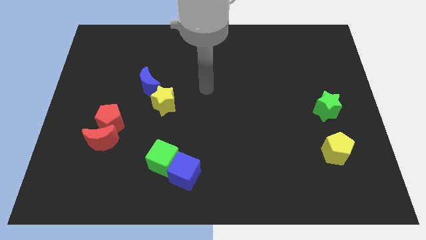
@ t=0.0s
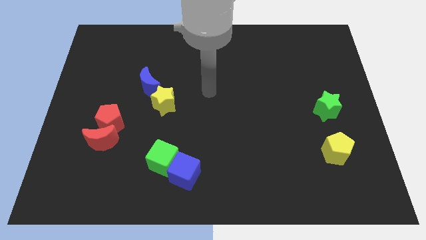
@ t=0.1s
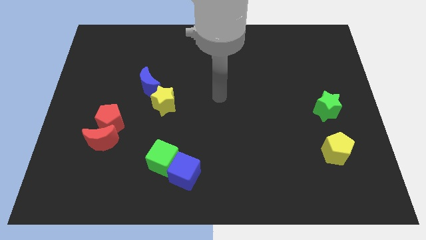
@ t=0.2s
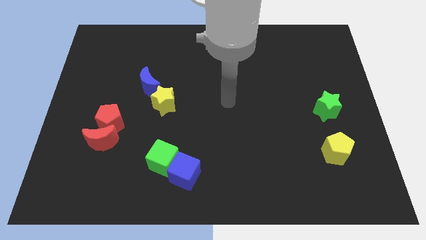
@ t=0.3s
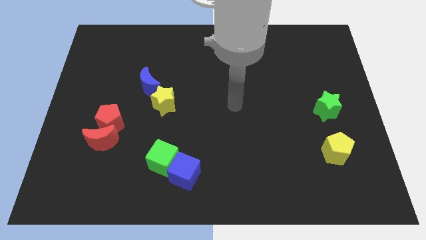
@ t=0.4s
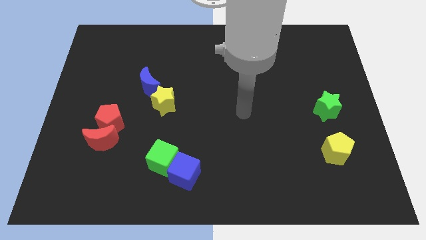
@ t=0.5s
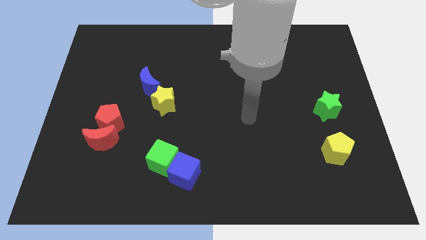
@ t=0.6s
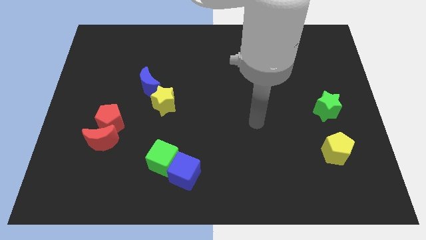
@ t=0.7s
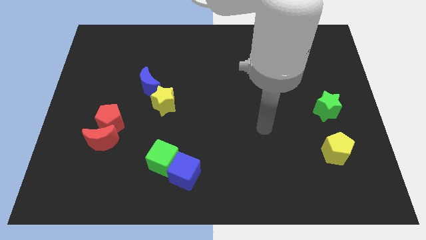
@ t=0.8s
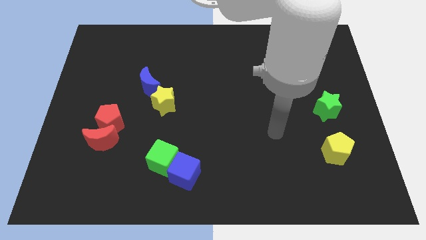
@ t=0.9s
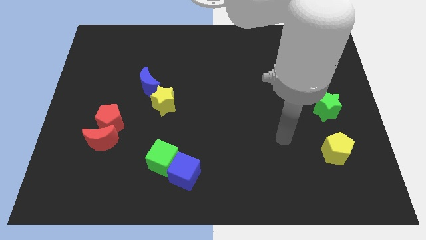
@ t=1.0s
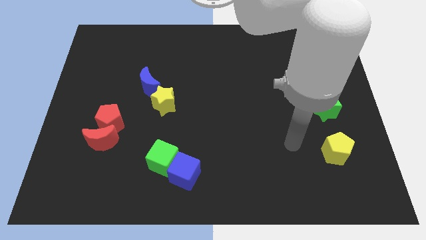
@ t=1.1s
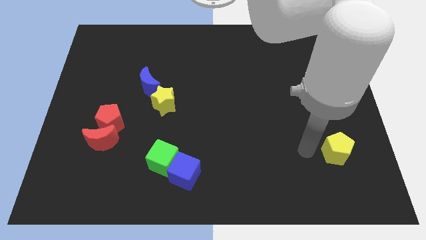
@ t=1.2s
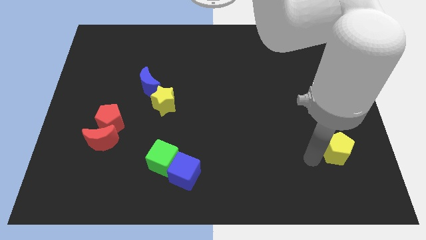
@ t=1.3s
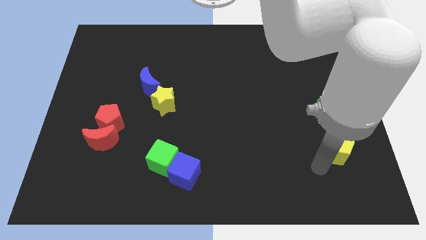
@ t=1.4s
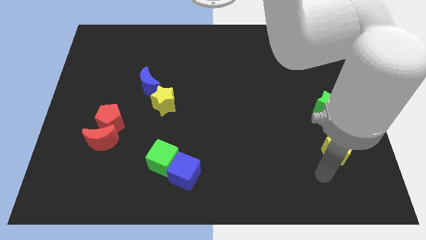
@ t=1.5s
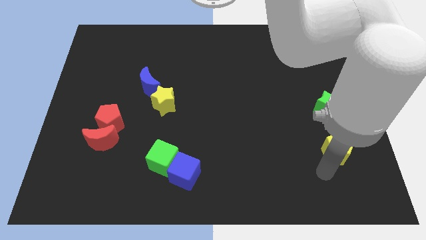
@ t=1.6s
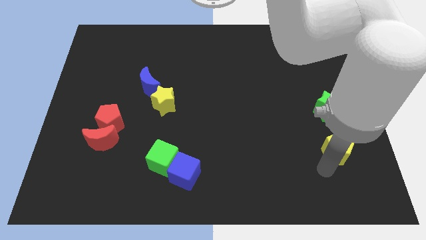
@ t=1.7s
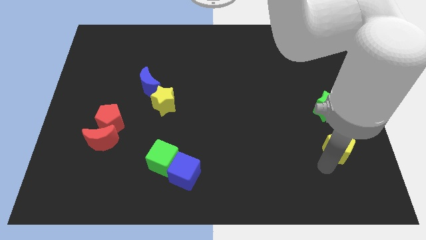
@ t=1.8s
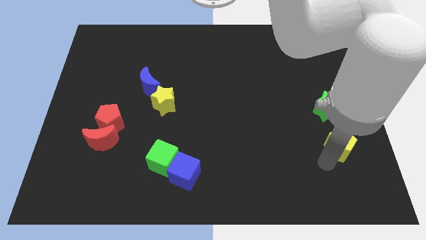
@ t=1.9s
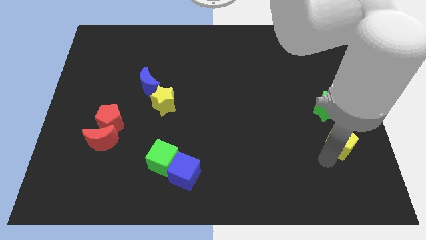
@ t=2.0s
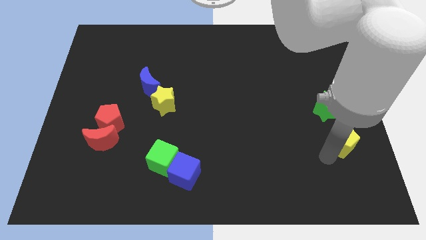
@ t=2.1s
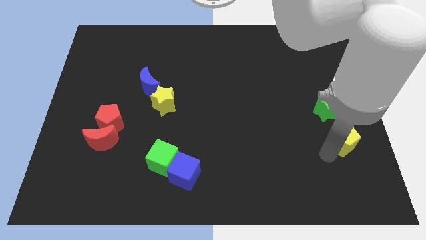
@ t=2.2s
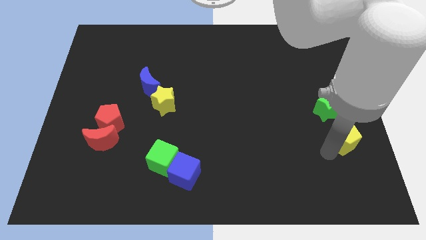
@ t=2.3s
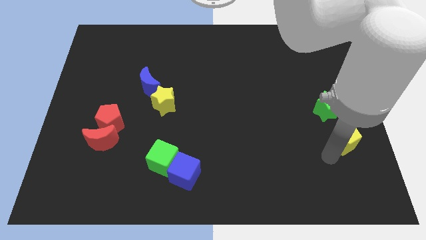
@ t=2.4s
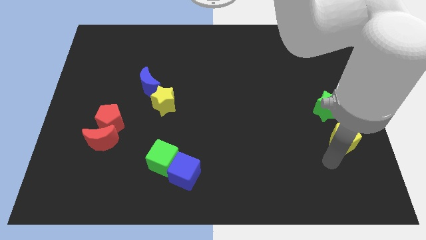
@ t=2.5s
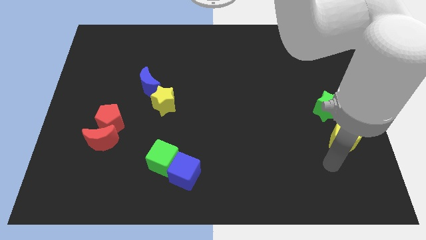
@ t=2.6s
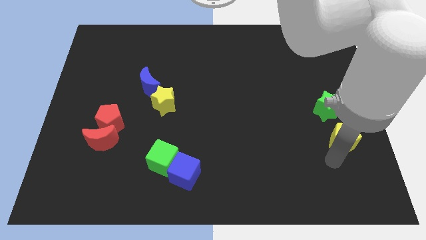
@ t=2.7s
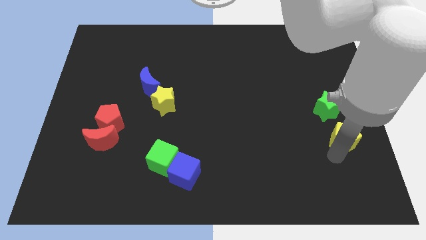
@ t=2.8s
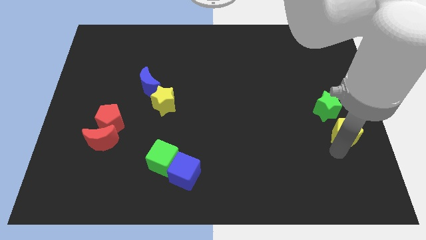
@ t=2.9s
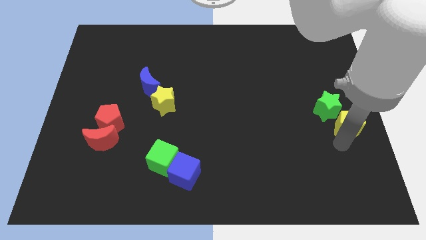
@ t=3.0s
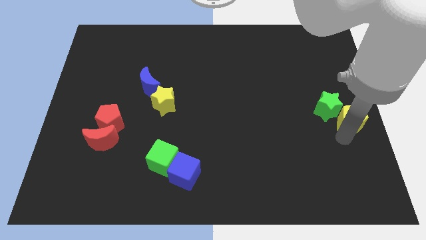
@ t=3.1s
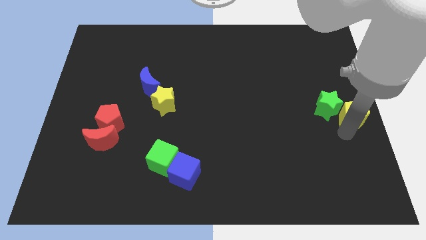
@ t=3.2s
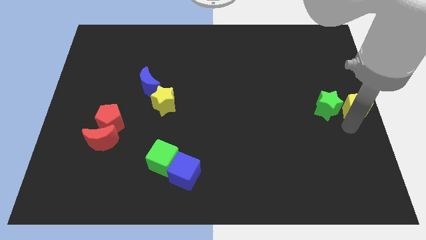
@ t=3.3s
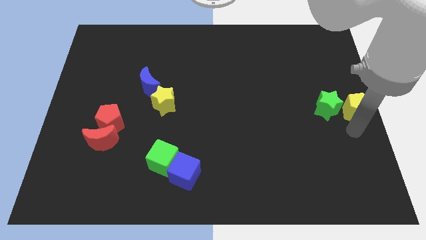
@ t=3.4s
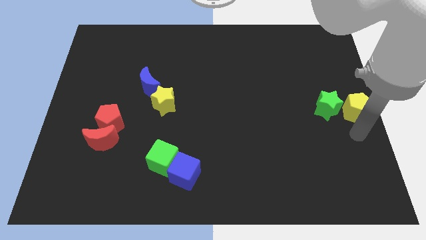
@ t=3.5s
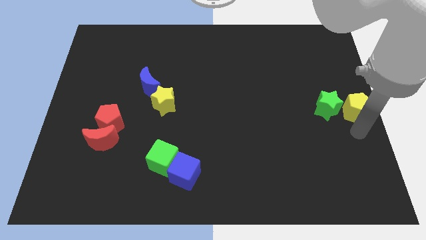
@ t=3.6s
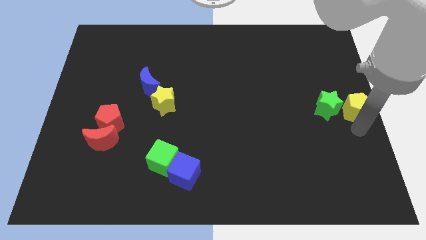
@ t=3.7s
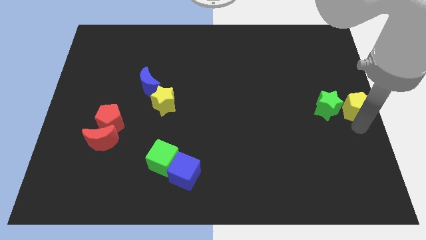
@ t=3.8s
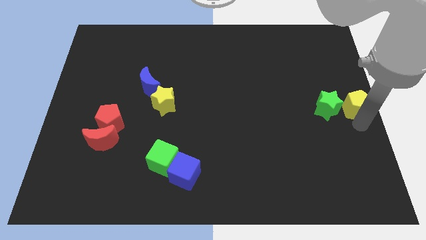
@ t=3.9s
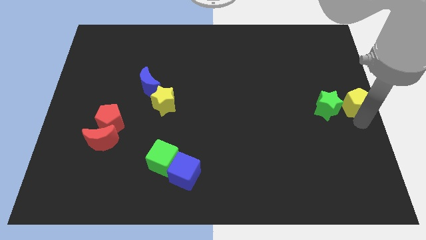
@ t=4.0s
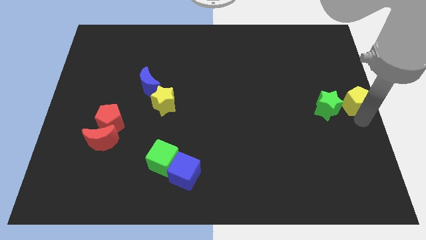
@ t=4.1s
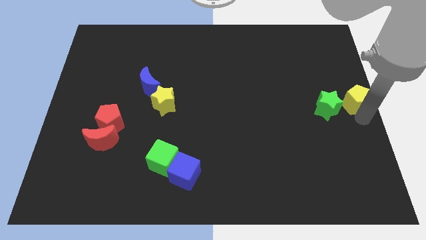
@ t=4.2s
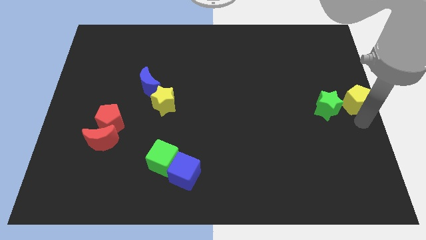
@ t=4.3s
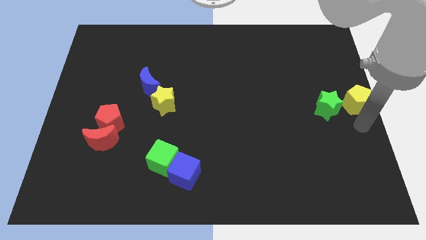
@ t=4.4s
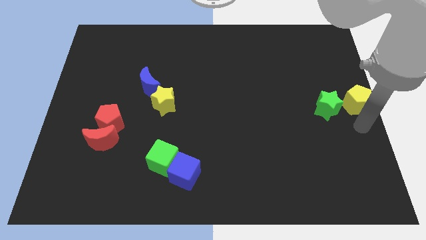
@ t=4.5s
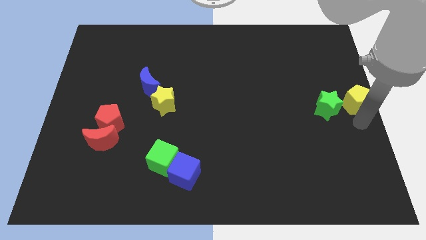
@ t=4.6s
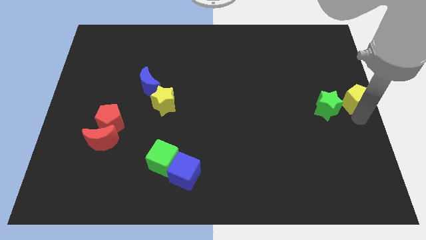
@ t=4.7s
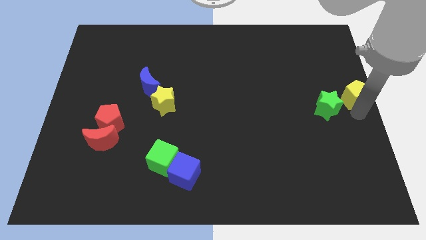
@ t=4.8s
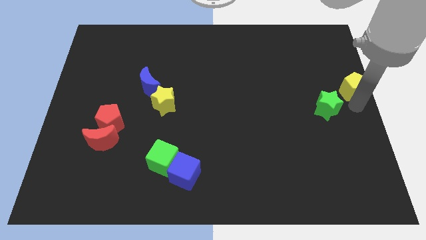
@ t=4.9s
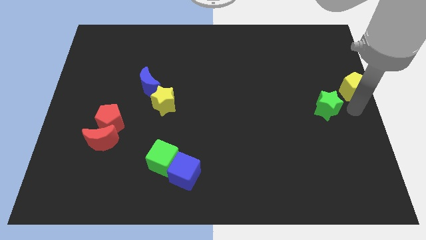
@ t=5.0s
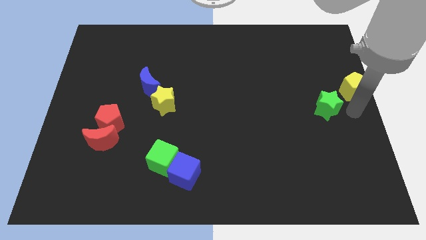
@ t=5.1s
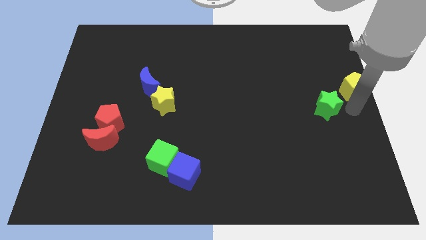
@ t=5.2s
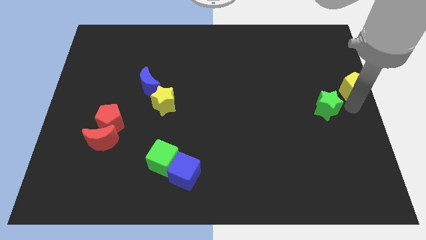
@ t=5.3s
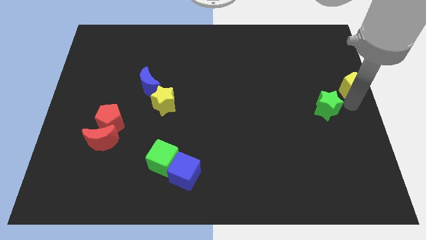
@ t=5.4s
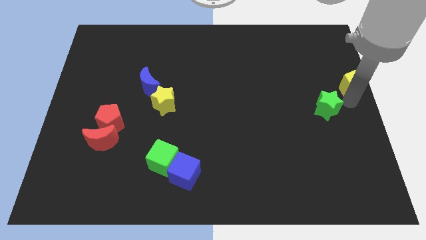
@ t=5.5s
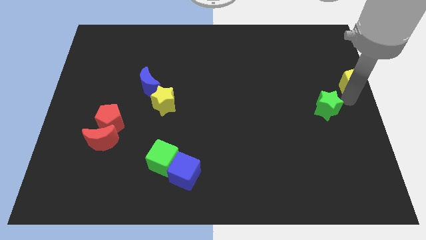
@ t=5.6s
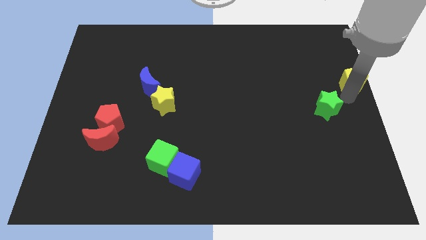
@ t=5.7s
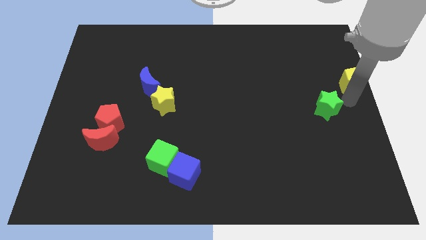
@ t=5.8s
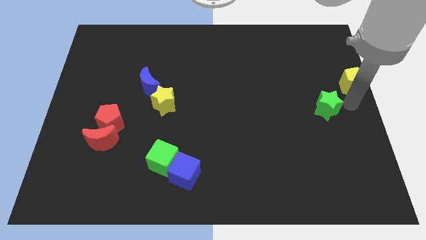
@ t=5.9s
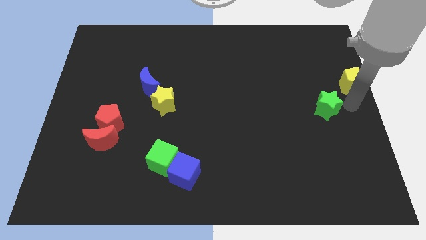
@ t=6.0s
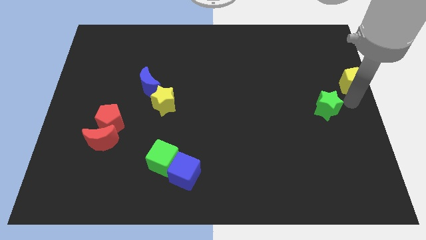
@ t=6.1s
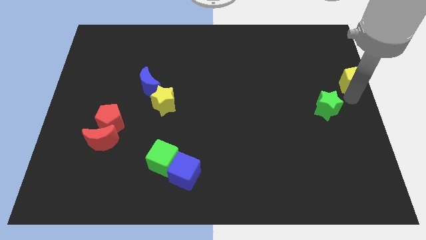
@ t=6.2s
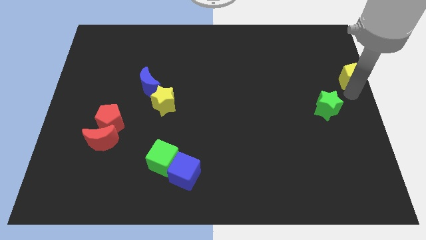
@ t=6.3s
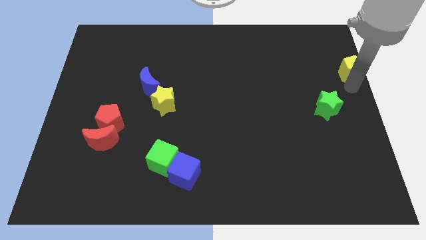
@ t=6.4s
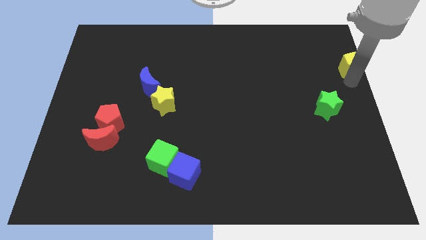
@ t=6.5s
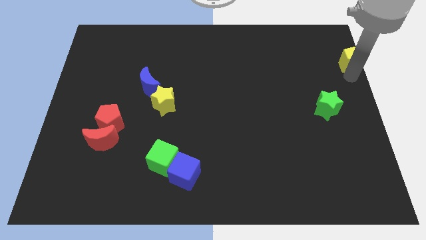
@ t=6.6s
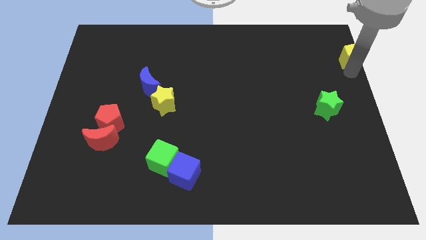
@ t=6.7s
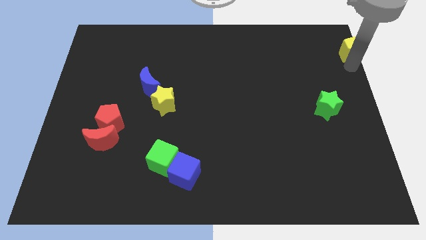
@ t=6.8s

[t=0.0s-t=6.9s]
slide the yellow pentagon to the top right
